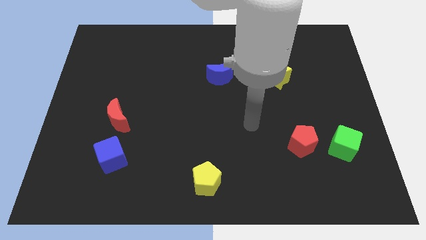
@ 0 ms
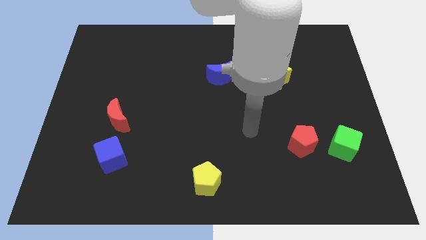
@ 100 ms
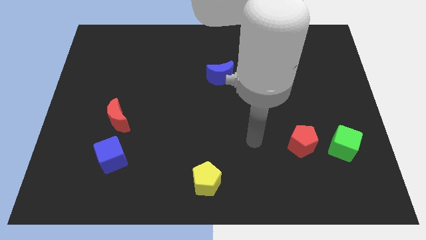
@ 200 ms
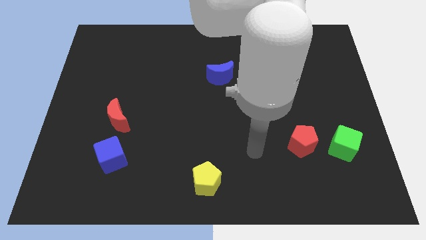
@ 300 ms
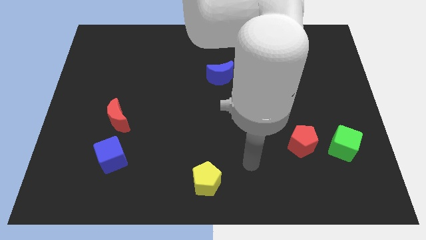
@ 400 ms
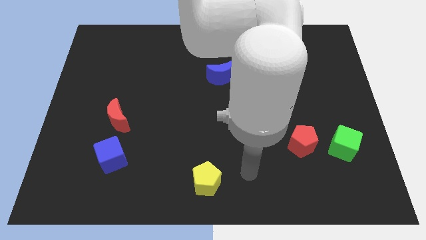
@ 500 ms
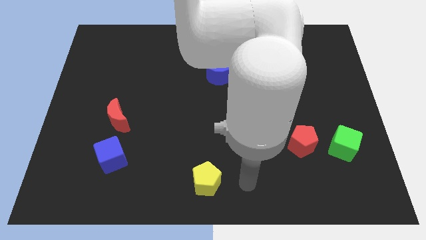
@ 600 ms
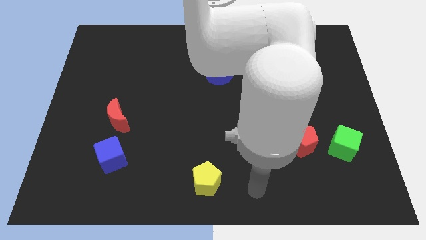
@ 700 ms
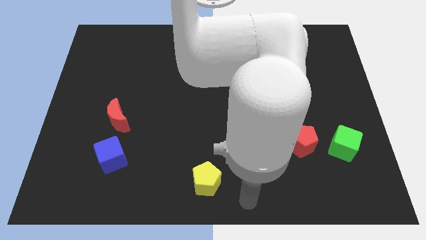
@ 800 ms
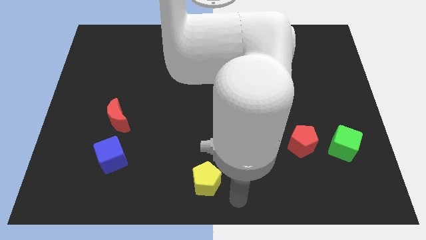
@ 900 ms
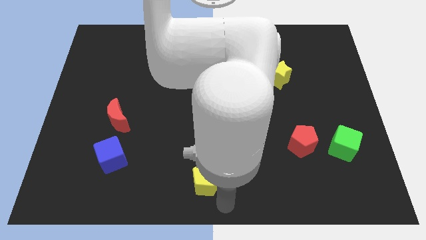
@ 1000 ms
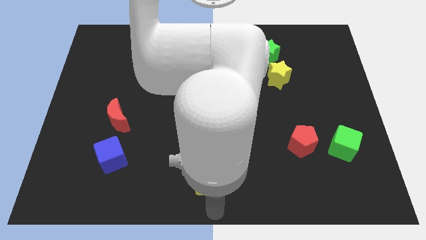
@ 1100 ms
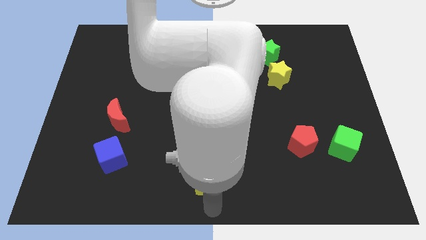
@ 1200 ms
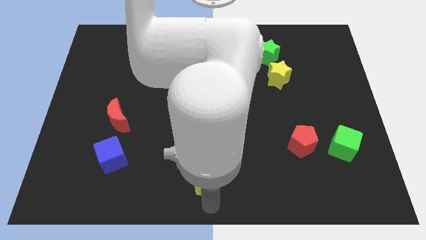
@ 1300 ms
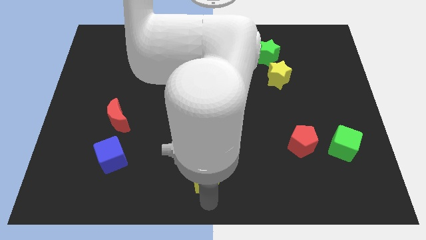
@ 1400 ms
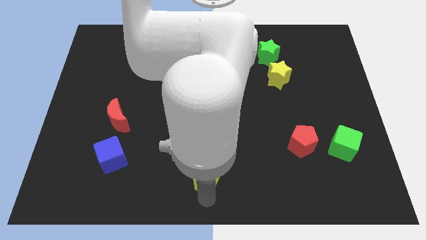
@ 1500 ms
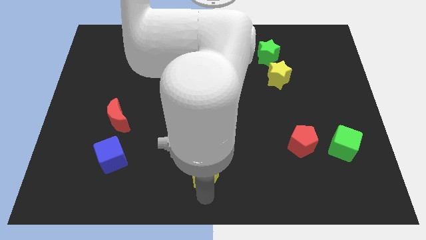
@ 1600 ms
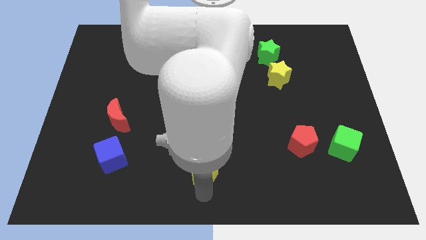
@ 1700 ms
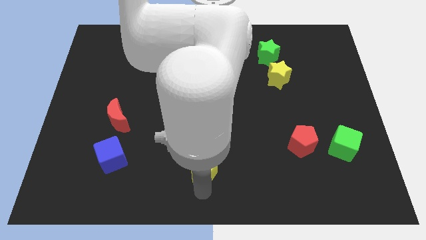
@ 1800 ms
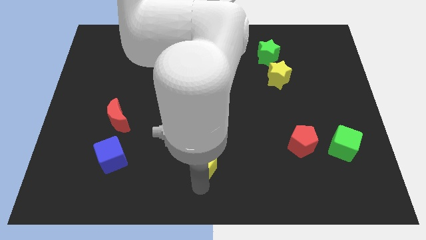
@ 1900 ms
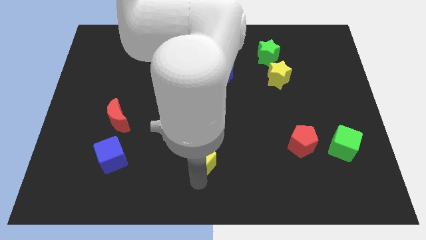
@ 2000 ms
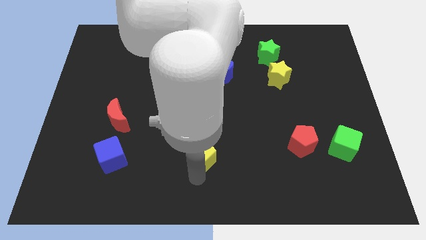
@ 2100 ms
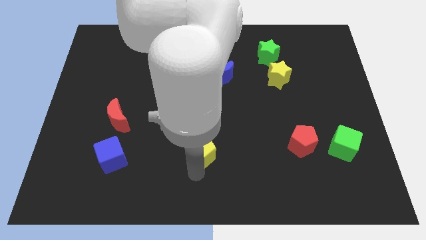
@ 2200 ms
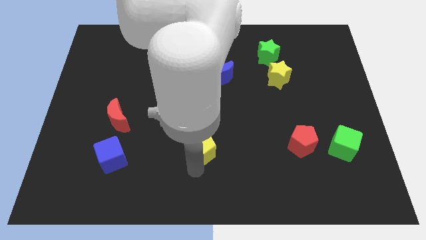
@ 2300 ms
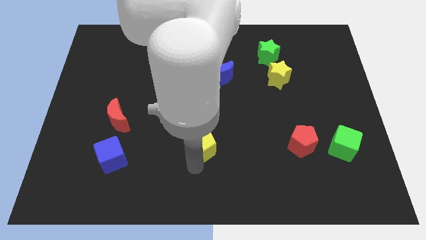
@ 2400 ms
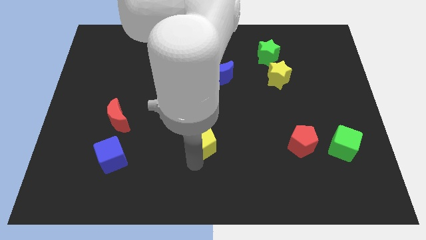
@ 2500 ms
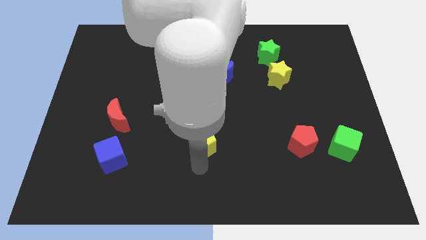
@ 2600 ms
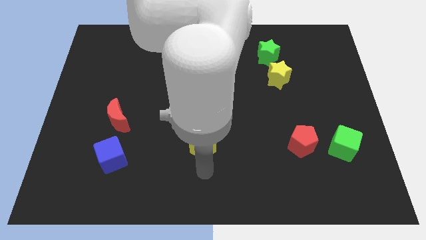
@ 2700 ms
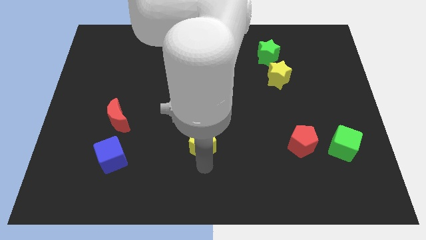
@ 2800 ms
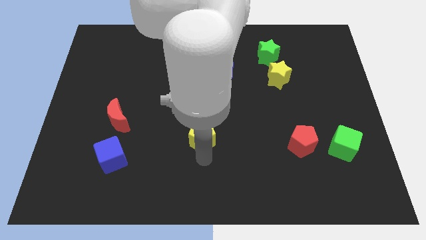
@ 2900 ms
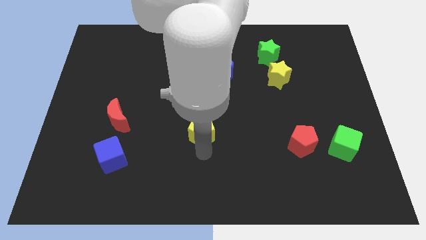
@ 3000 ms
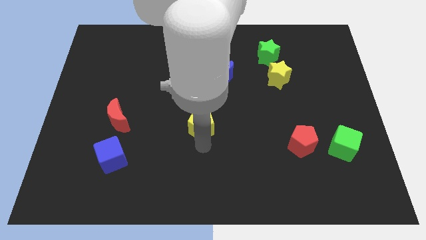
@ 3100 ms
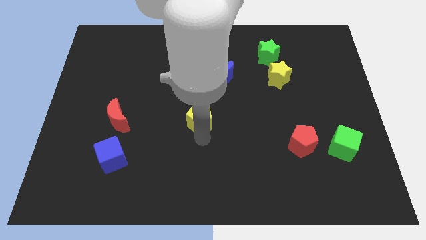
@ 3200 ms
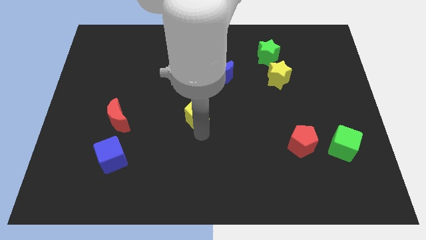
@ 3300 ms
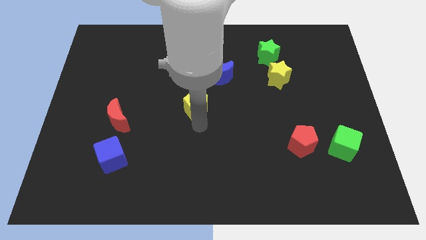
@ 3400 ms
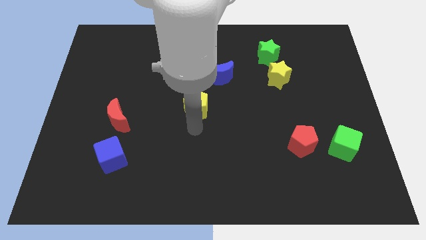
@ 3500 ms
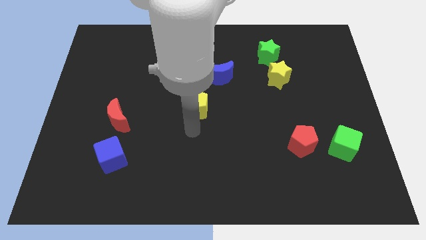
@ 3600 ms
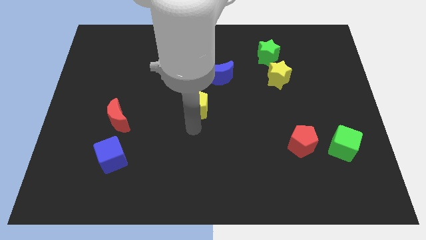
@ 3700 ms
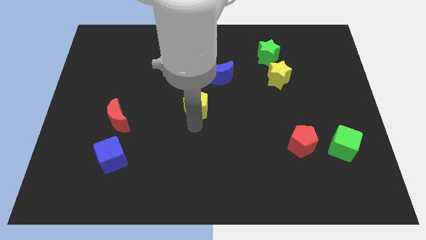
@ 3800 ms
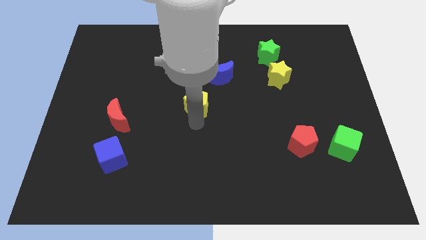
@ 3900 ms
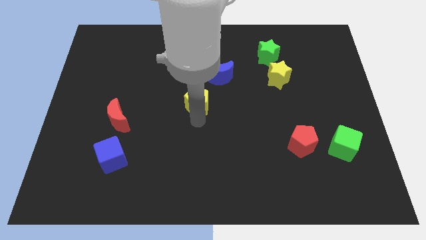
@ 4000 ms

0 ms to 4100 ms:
push the yellow pentagon up

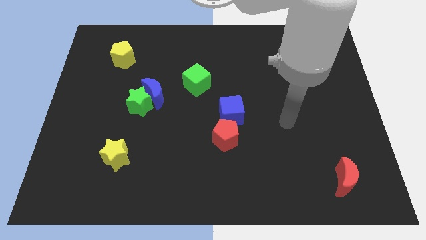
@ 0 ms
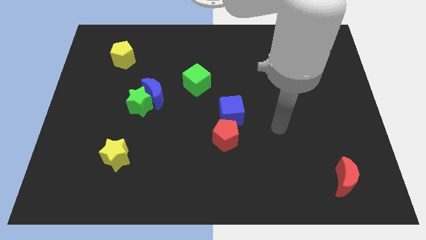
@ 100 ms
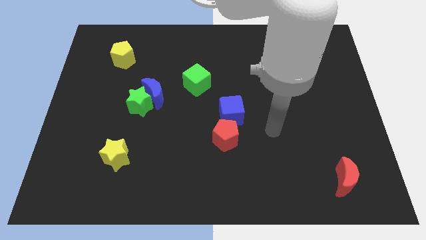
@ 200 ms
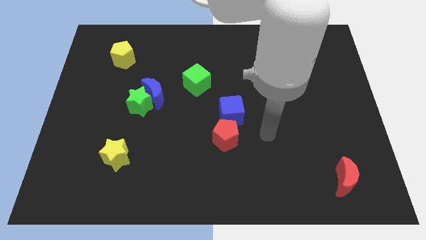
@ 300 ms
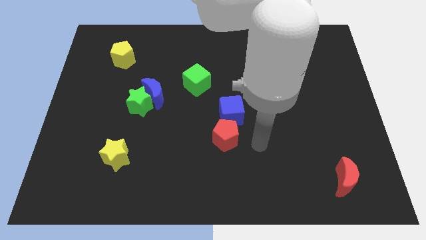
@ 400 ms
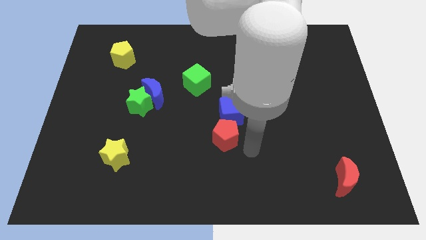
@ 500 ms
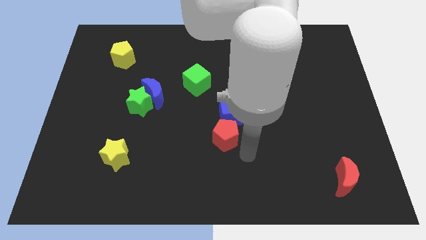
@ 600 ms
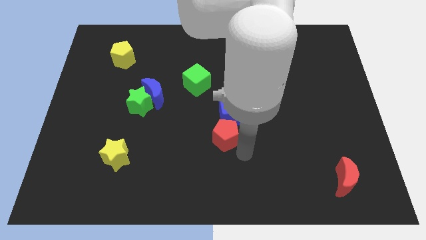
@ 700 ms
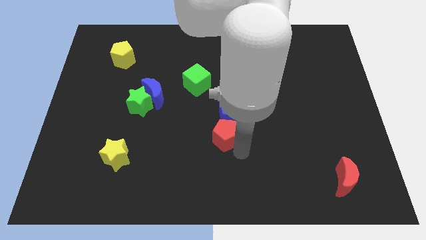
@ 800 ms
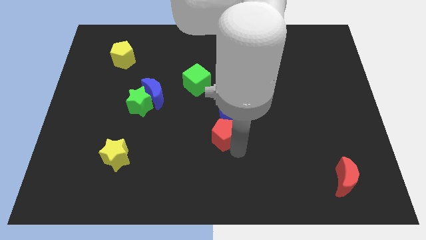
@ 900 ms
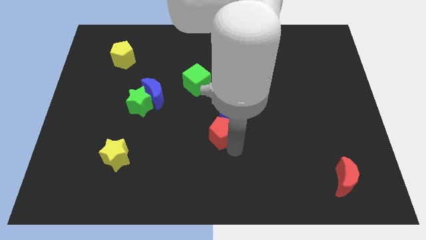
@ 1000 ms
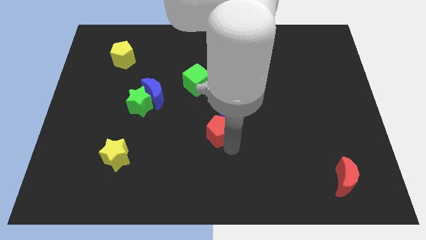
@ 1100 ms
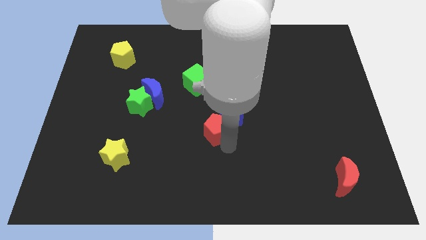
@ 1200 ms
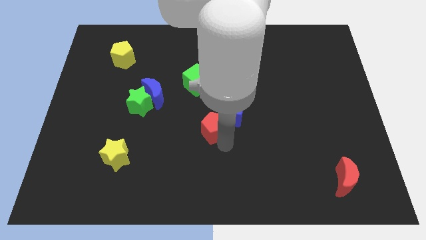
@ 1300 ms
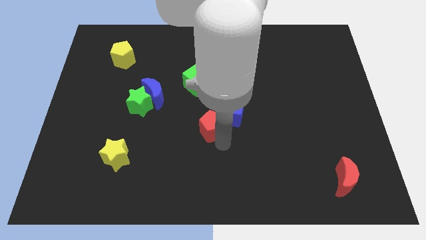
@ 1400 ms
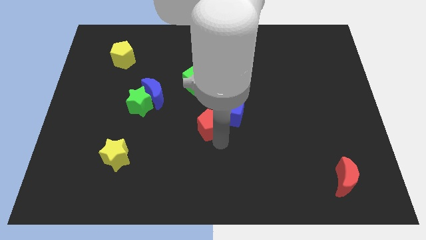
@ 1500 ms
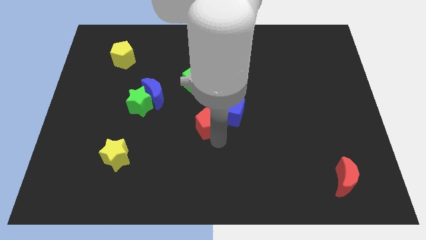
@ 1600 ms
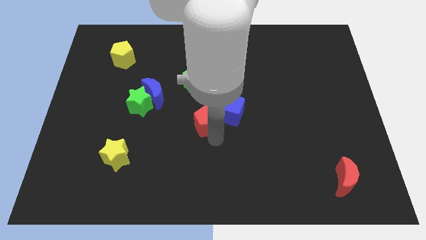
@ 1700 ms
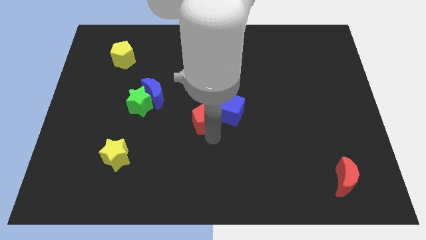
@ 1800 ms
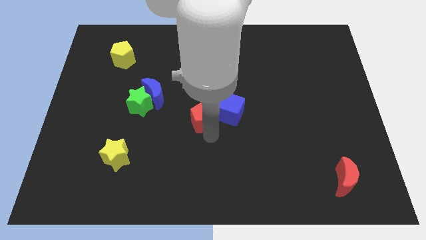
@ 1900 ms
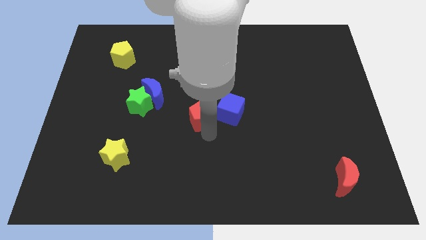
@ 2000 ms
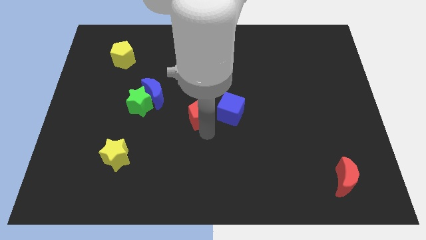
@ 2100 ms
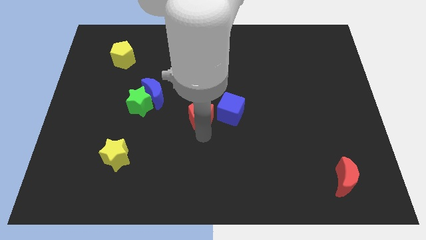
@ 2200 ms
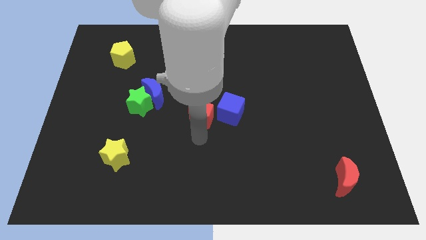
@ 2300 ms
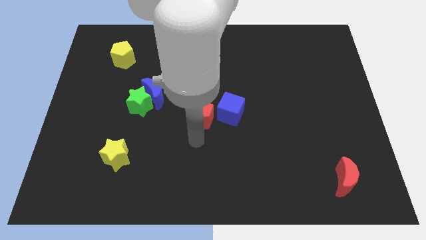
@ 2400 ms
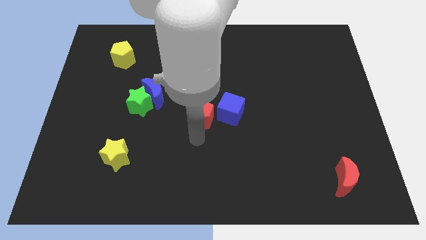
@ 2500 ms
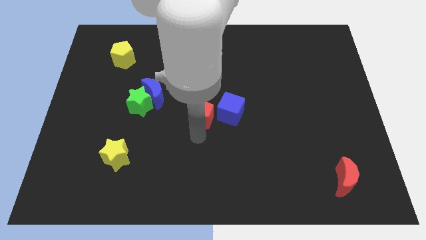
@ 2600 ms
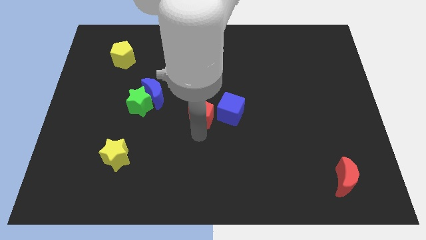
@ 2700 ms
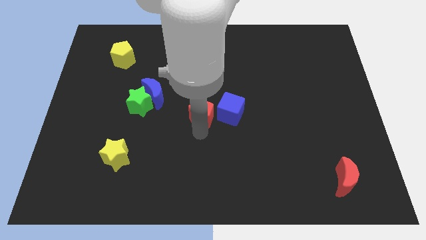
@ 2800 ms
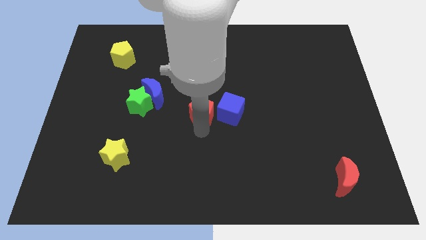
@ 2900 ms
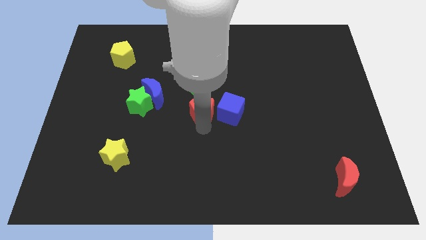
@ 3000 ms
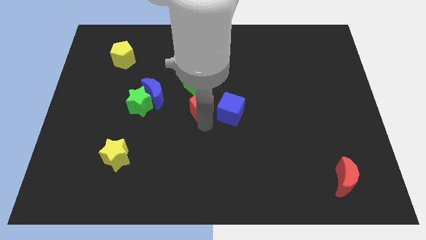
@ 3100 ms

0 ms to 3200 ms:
move the red pentagon upwards a bit

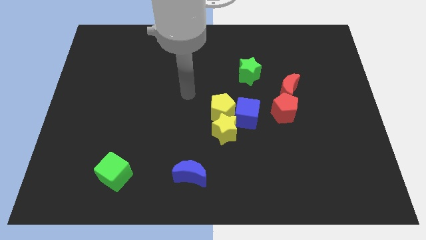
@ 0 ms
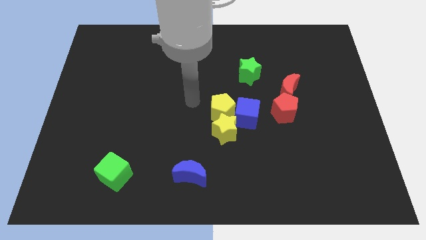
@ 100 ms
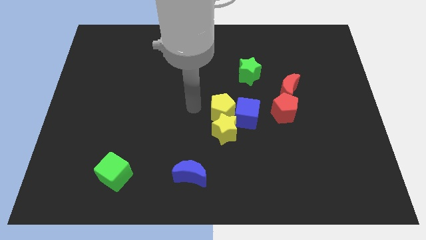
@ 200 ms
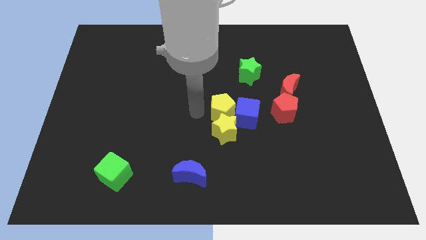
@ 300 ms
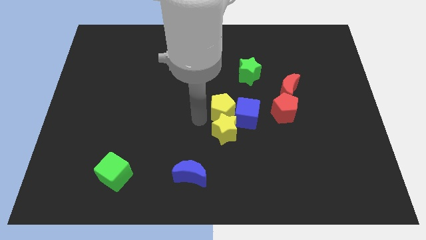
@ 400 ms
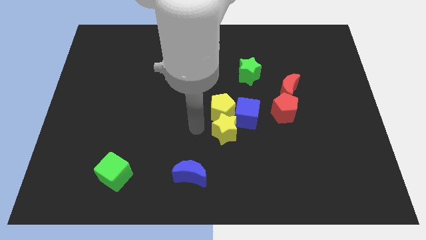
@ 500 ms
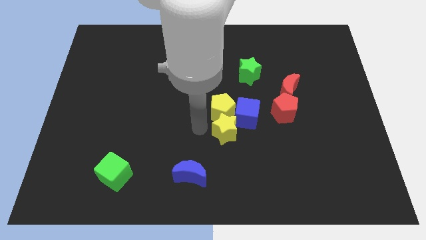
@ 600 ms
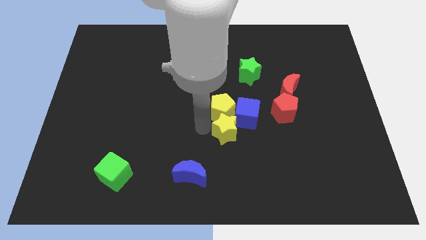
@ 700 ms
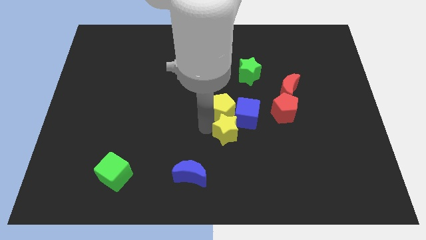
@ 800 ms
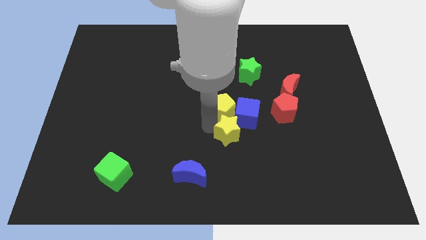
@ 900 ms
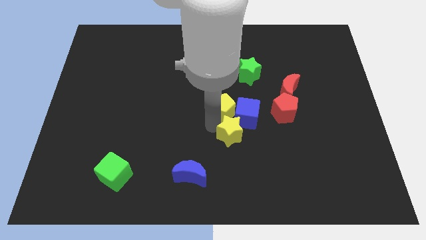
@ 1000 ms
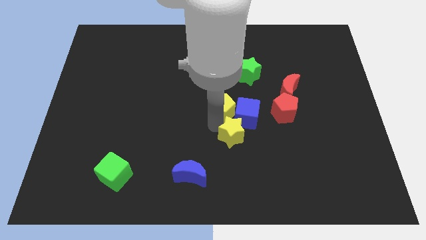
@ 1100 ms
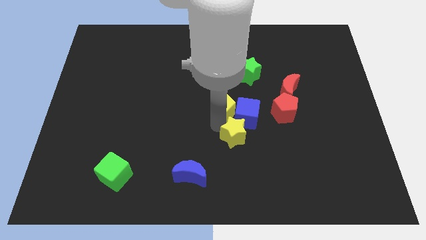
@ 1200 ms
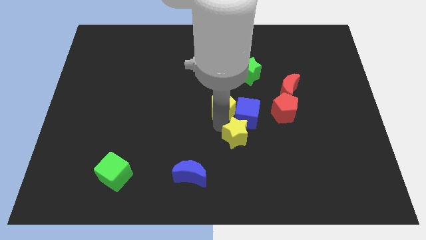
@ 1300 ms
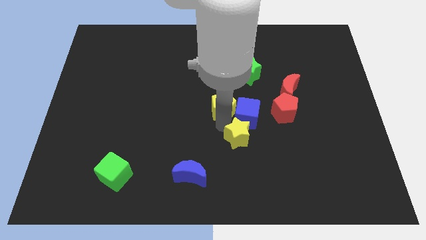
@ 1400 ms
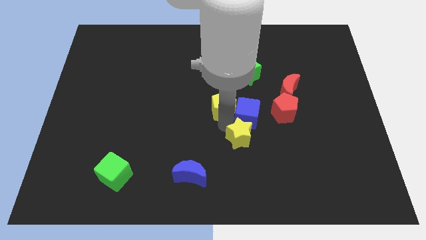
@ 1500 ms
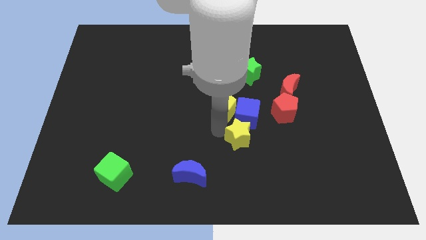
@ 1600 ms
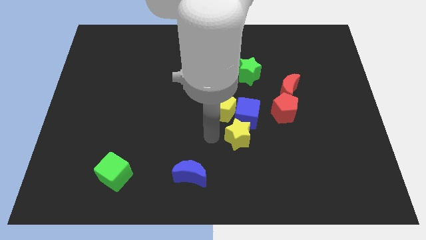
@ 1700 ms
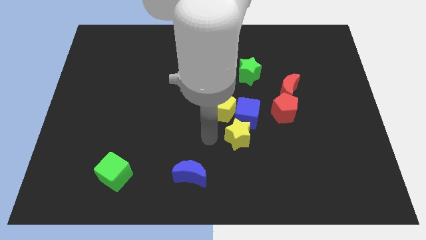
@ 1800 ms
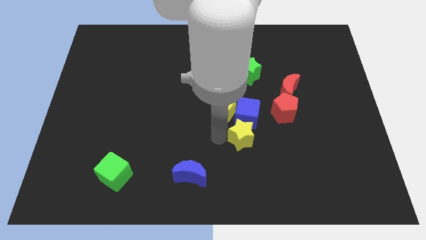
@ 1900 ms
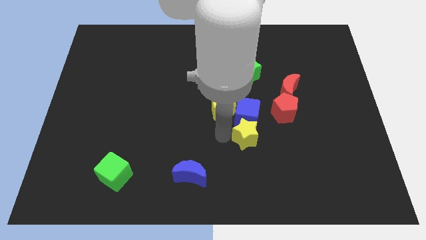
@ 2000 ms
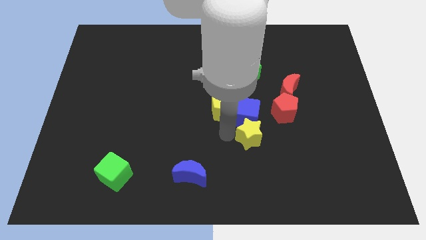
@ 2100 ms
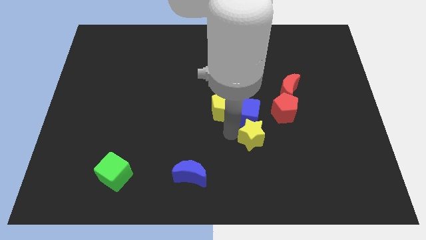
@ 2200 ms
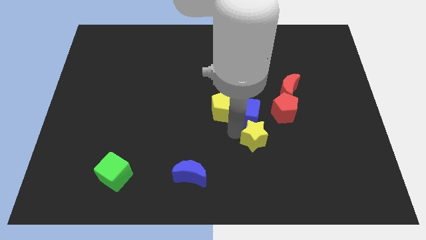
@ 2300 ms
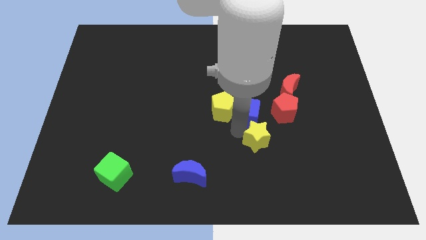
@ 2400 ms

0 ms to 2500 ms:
slide the yellow star a little bit right
